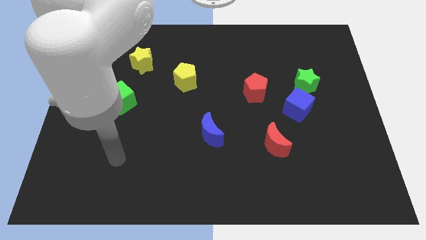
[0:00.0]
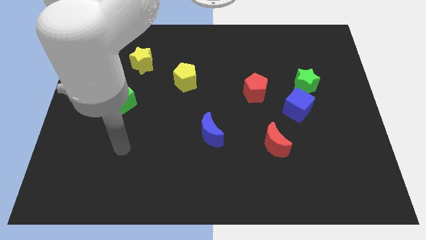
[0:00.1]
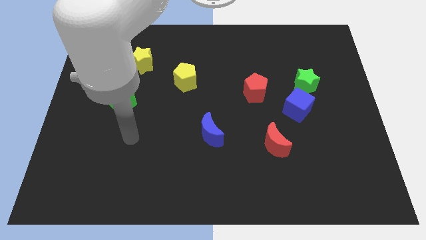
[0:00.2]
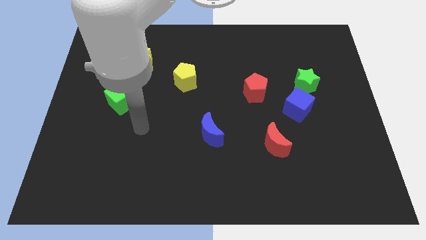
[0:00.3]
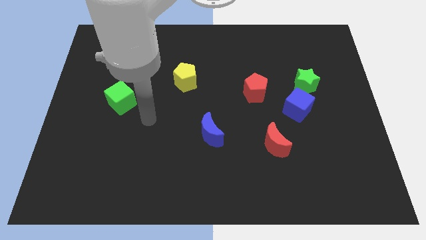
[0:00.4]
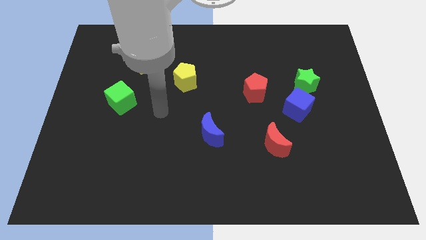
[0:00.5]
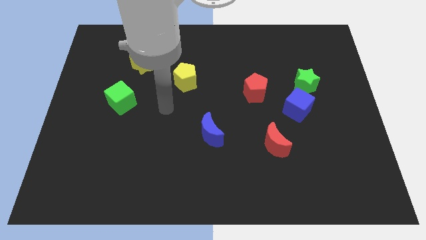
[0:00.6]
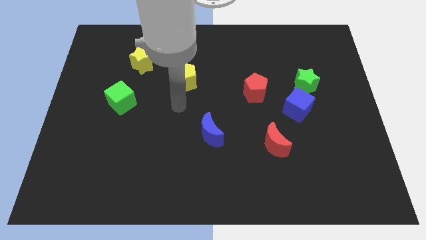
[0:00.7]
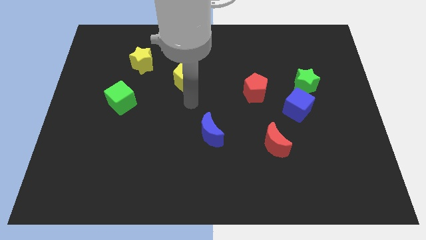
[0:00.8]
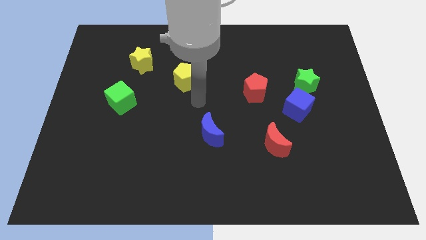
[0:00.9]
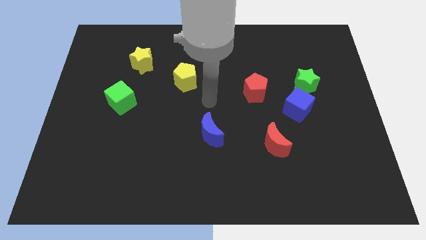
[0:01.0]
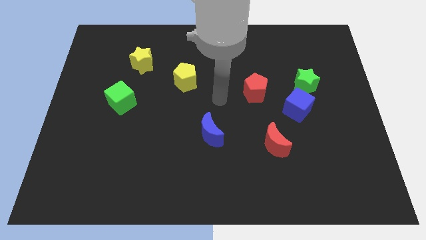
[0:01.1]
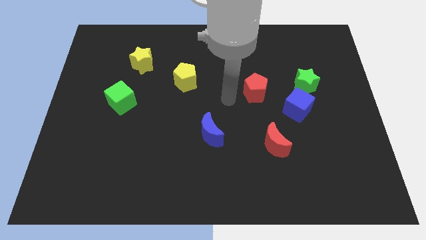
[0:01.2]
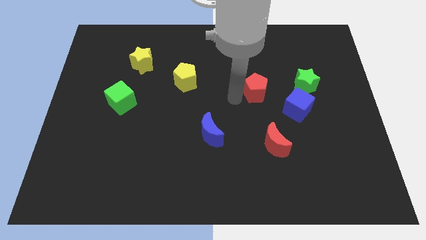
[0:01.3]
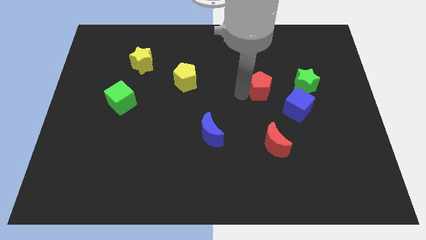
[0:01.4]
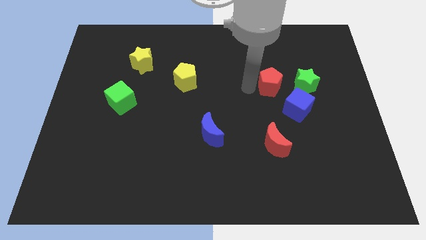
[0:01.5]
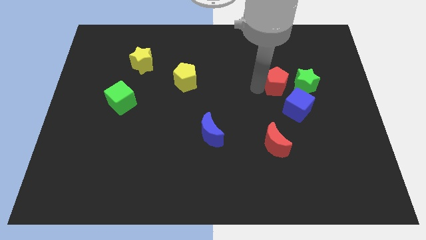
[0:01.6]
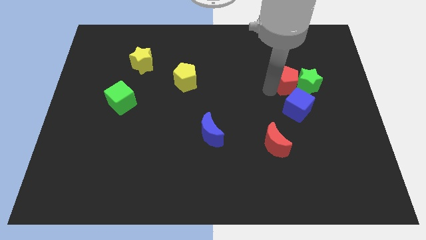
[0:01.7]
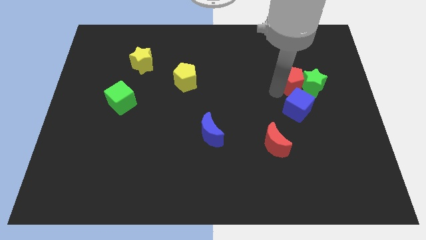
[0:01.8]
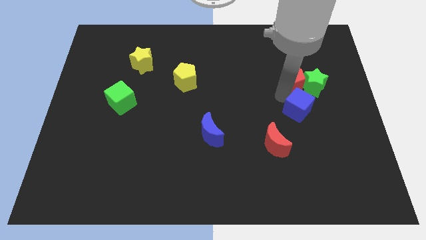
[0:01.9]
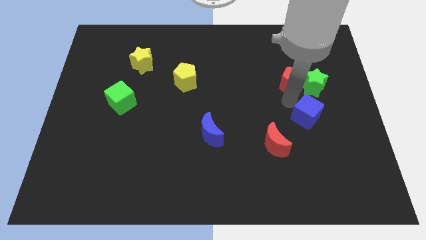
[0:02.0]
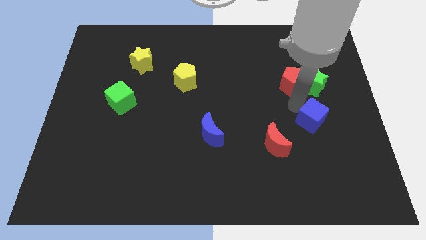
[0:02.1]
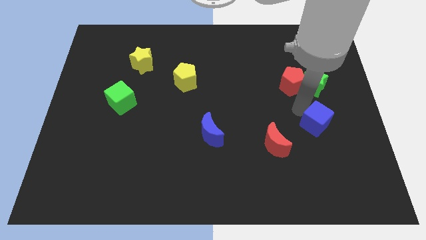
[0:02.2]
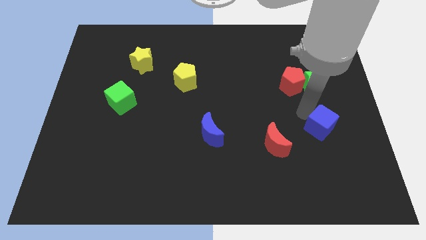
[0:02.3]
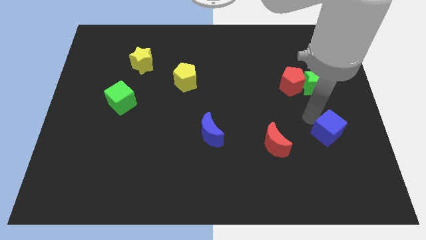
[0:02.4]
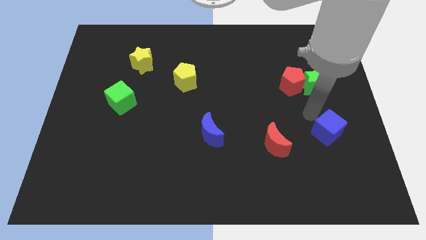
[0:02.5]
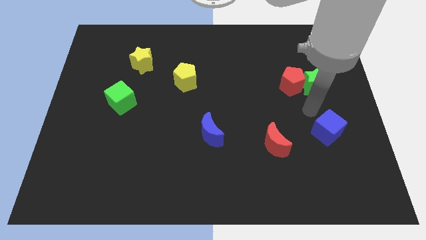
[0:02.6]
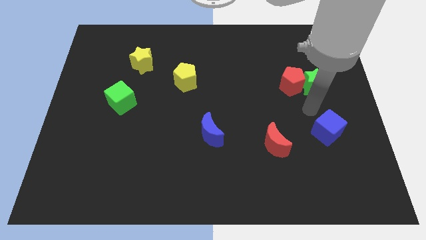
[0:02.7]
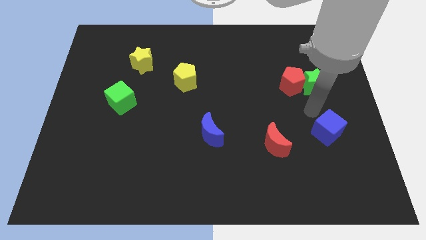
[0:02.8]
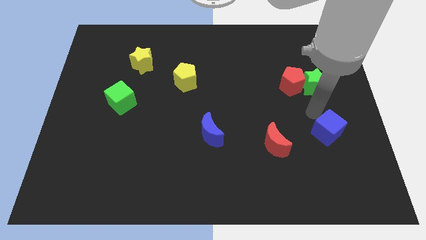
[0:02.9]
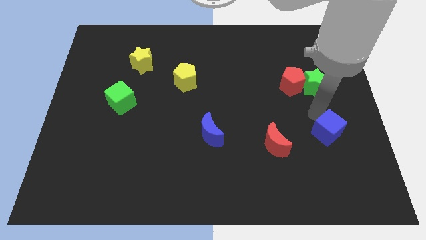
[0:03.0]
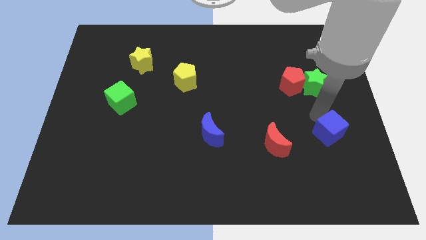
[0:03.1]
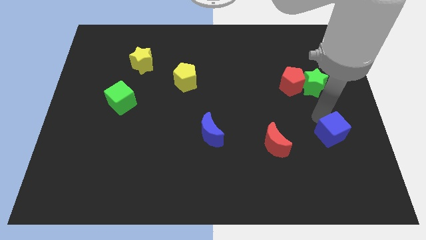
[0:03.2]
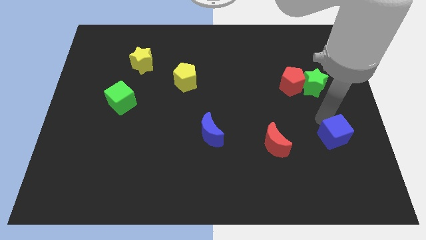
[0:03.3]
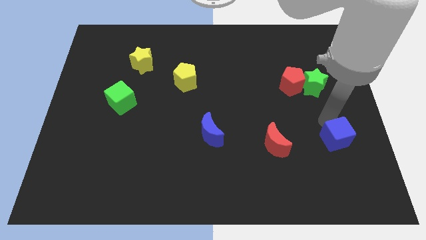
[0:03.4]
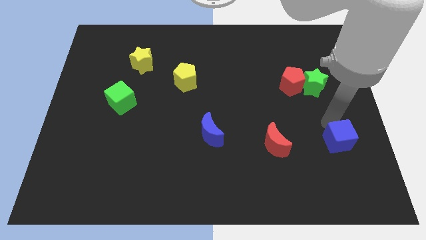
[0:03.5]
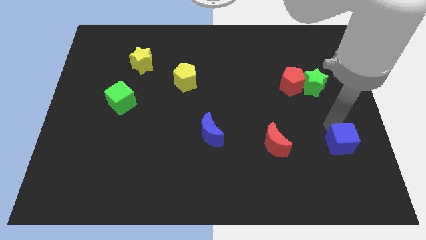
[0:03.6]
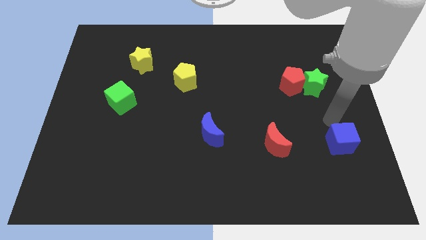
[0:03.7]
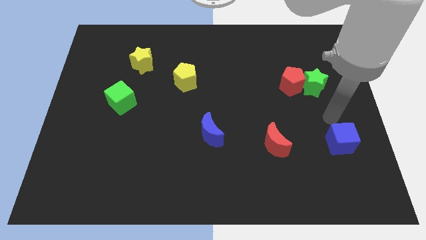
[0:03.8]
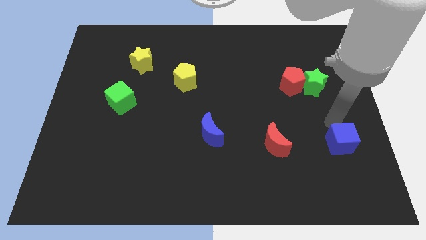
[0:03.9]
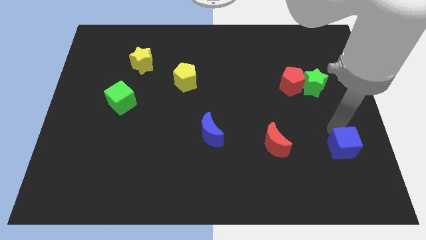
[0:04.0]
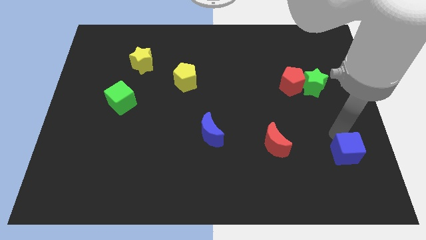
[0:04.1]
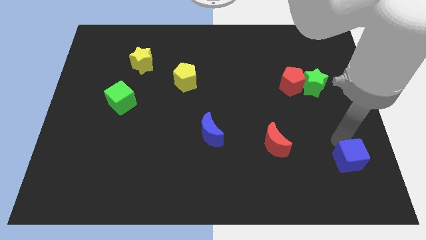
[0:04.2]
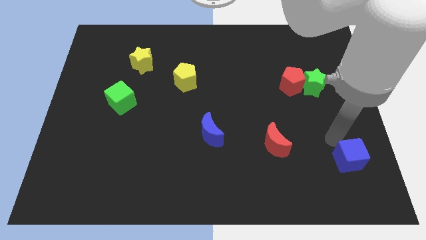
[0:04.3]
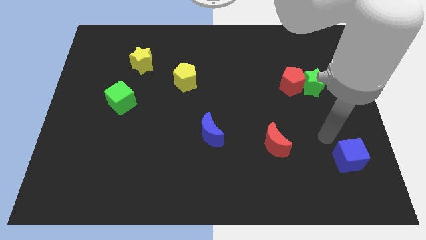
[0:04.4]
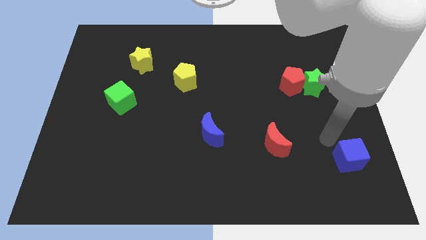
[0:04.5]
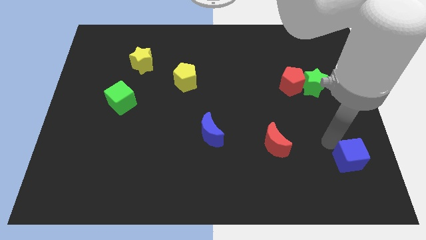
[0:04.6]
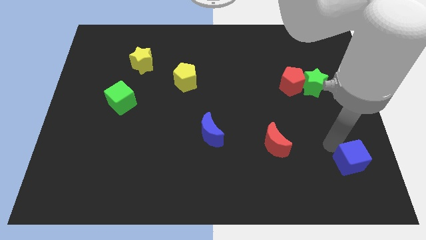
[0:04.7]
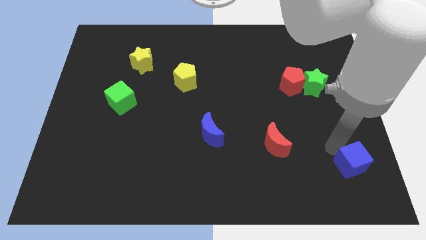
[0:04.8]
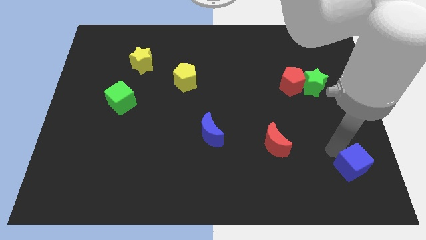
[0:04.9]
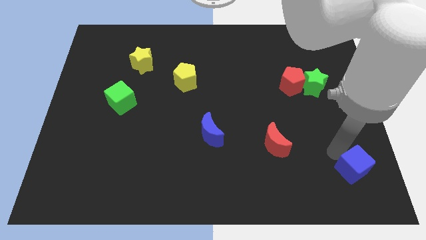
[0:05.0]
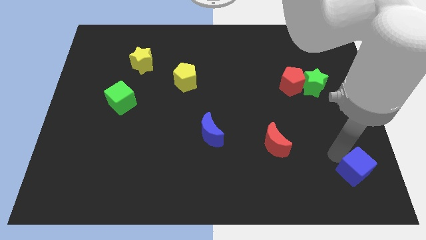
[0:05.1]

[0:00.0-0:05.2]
push the blue cube to the bottom right corner

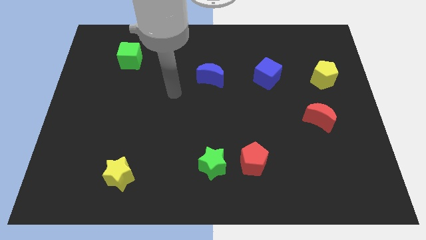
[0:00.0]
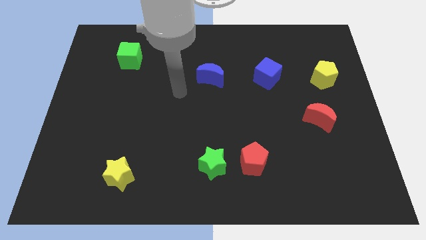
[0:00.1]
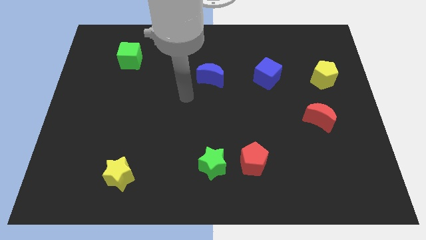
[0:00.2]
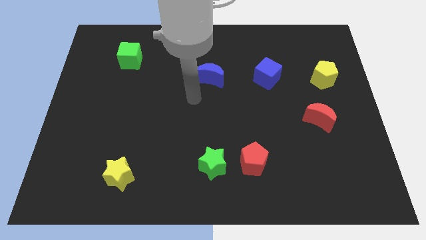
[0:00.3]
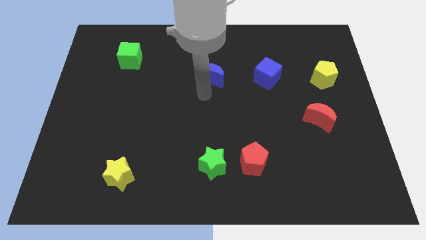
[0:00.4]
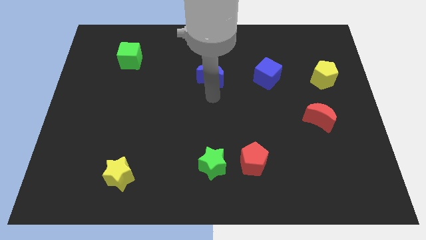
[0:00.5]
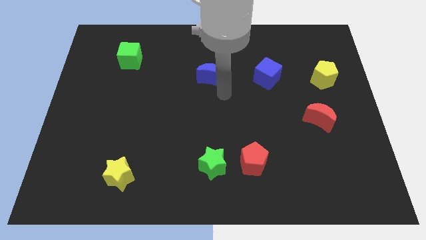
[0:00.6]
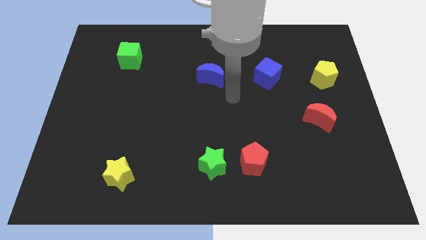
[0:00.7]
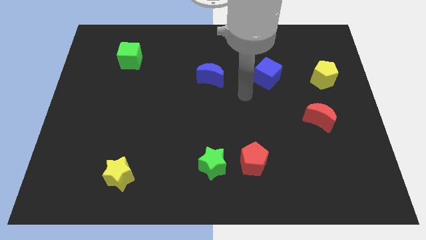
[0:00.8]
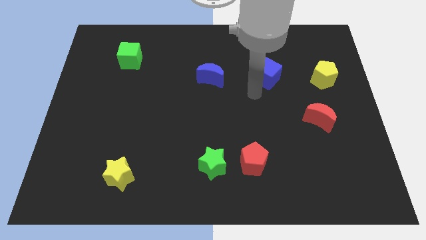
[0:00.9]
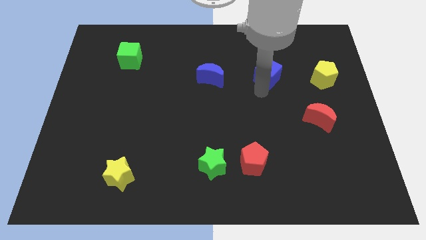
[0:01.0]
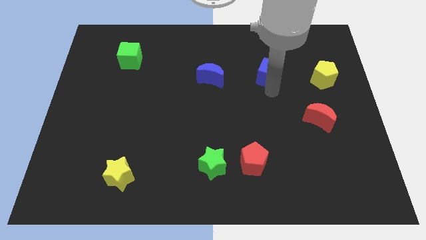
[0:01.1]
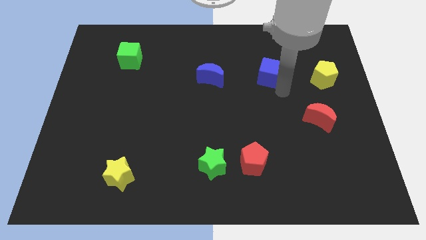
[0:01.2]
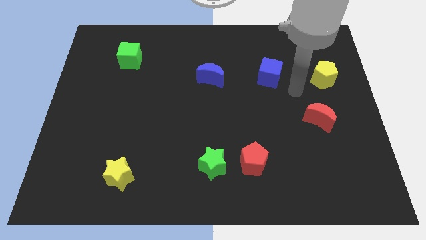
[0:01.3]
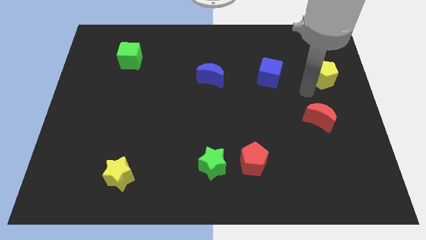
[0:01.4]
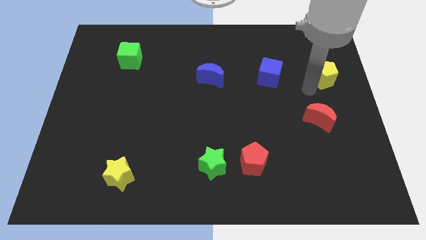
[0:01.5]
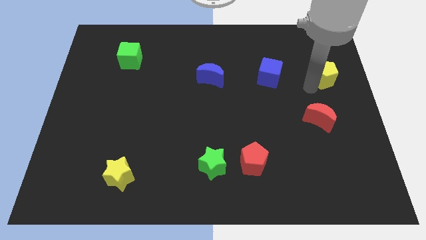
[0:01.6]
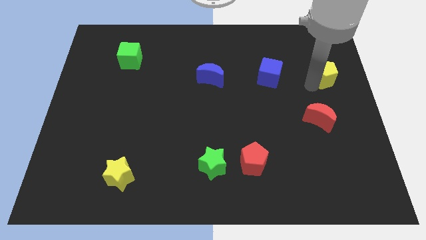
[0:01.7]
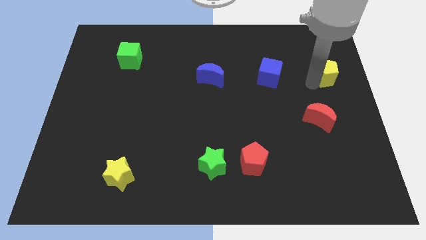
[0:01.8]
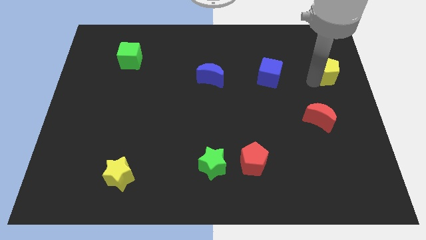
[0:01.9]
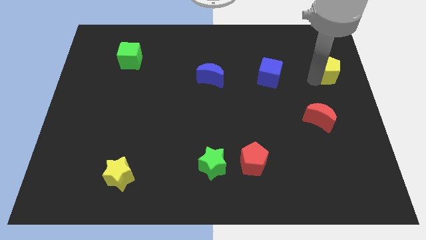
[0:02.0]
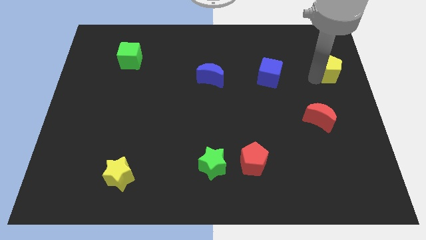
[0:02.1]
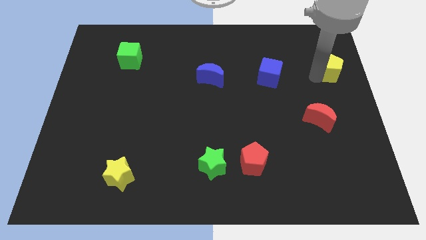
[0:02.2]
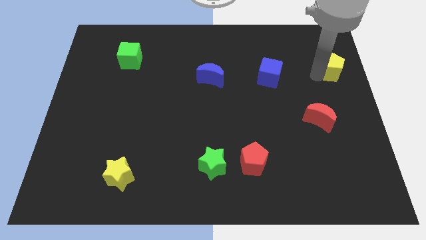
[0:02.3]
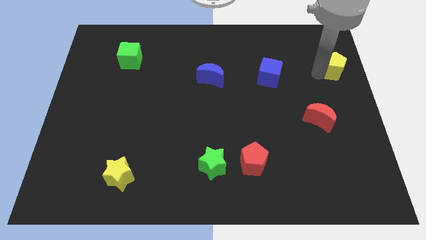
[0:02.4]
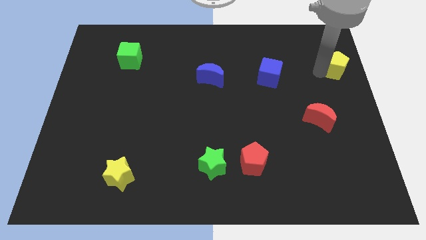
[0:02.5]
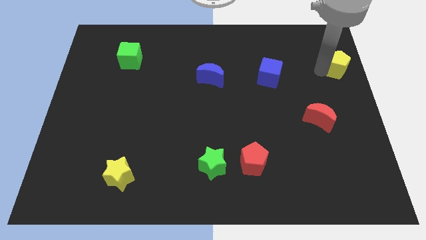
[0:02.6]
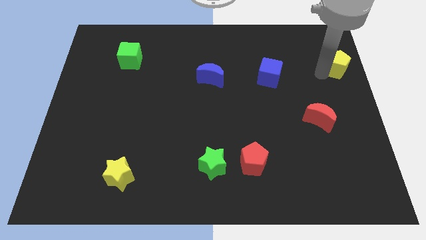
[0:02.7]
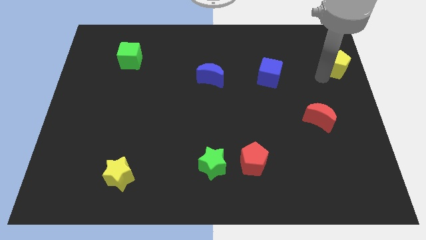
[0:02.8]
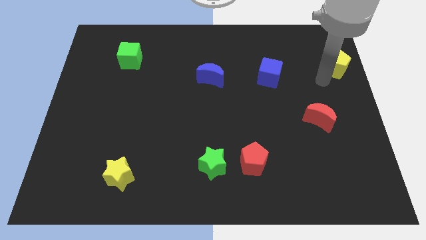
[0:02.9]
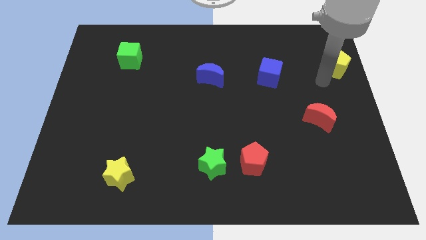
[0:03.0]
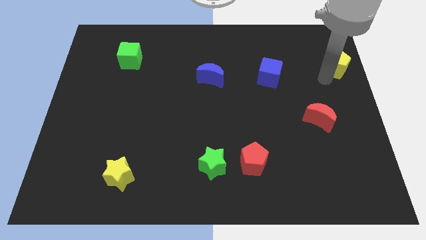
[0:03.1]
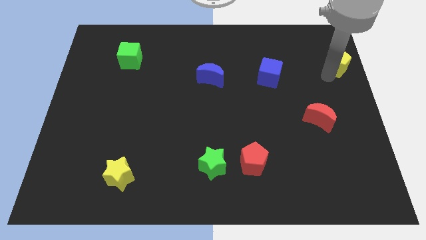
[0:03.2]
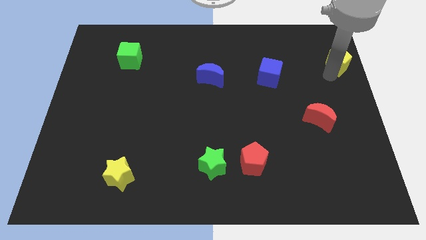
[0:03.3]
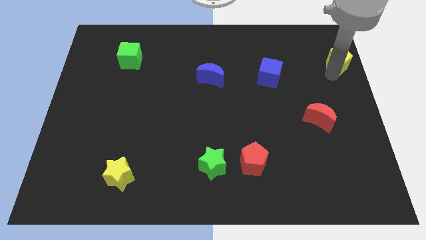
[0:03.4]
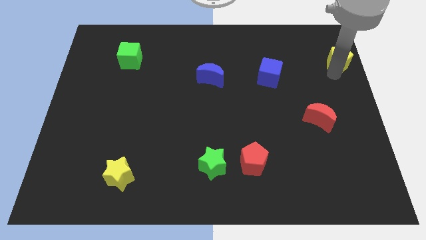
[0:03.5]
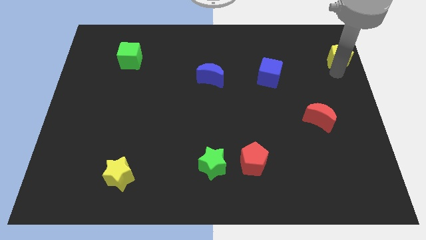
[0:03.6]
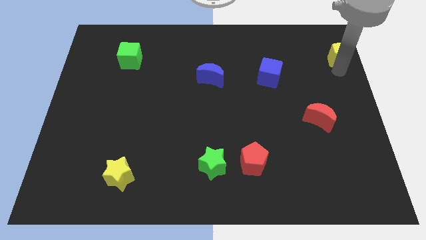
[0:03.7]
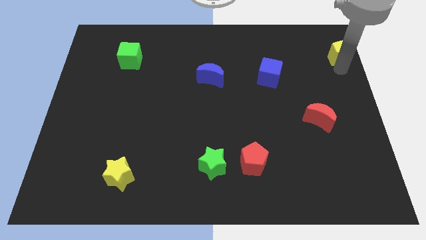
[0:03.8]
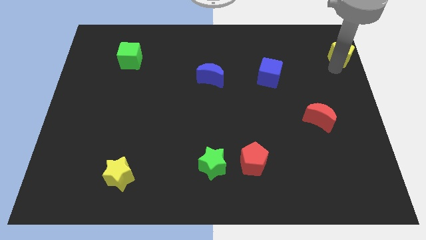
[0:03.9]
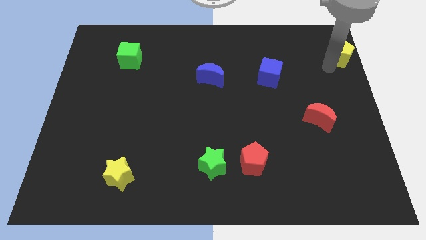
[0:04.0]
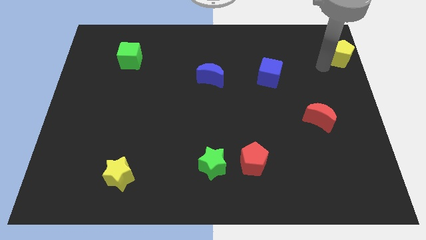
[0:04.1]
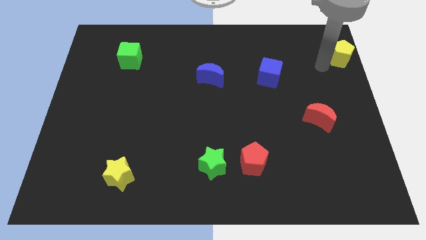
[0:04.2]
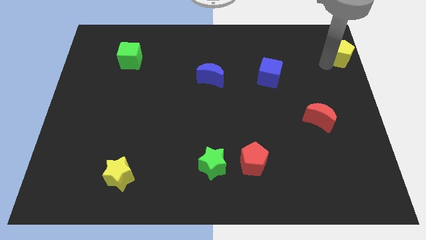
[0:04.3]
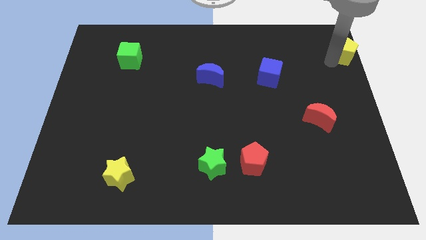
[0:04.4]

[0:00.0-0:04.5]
put the yellow pentagon to the top right corner
